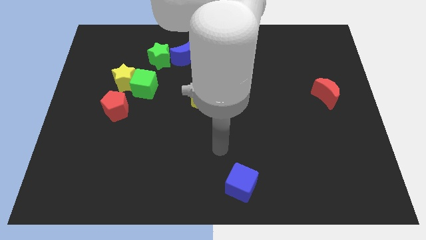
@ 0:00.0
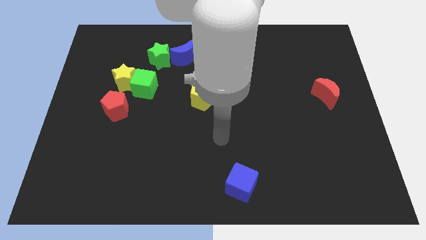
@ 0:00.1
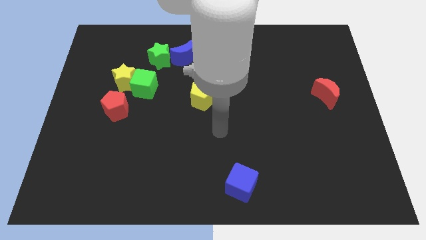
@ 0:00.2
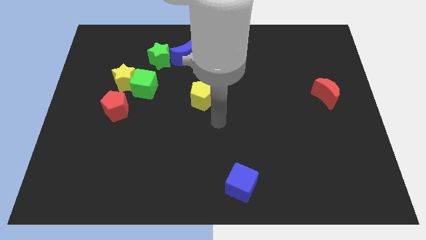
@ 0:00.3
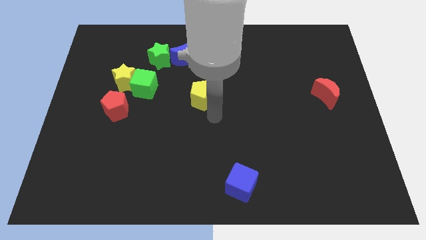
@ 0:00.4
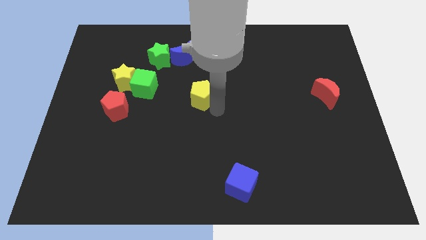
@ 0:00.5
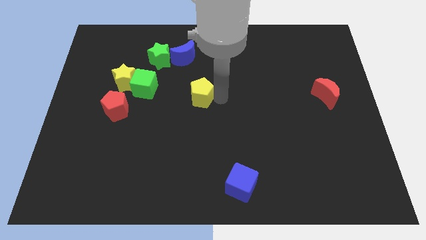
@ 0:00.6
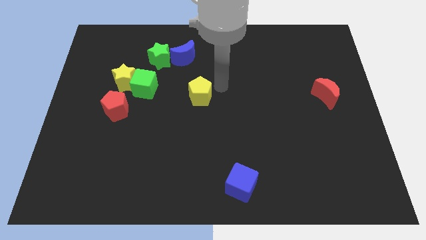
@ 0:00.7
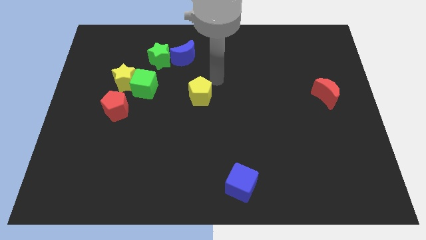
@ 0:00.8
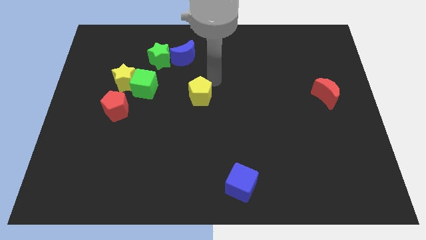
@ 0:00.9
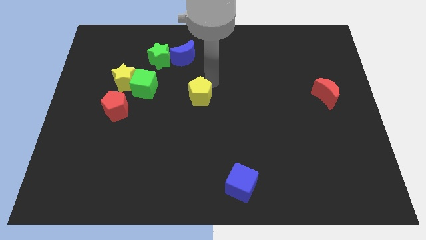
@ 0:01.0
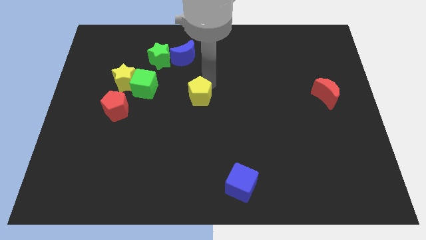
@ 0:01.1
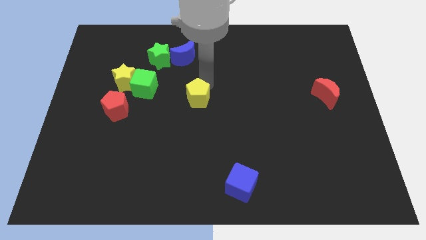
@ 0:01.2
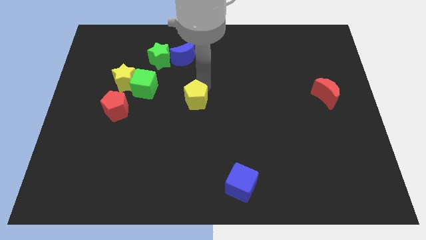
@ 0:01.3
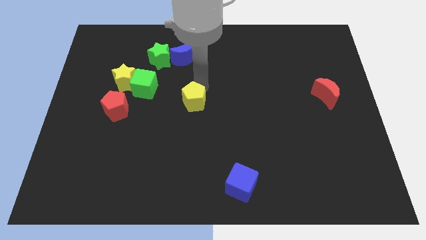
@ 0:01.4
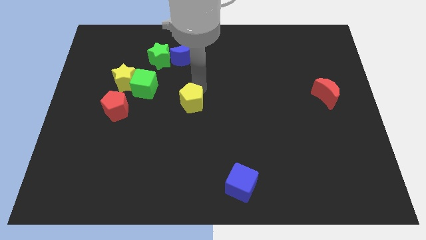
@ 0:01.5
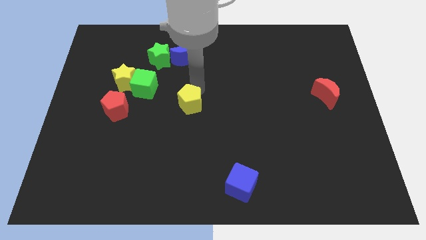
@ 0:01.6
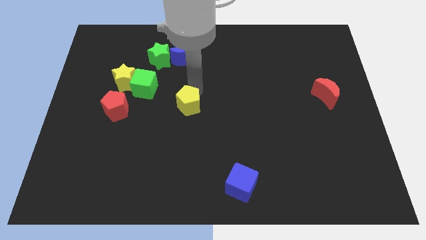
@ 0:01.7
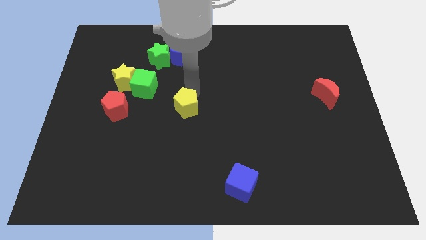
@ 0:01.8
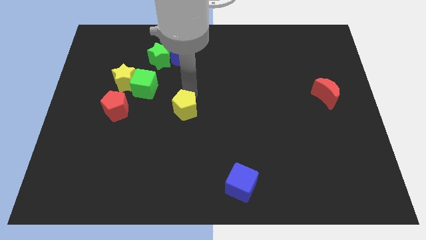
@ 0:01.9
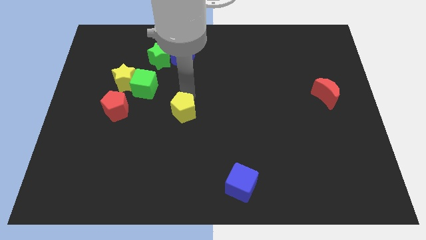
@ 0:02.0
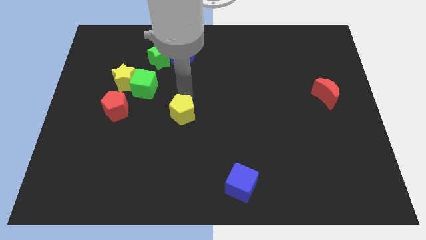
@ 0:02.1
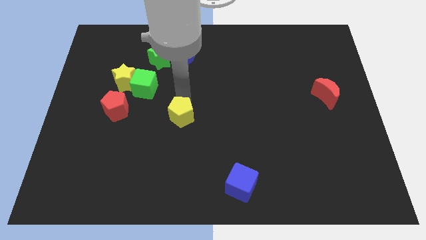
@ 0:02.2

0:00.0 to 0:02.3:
push the yellow pentagon somewhat downwards and then left

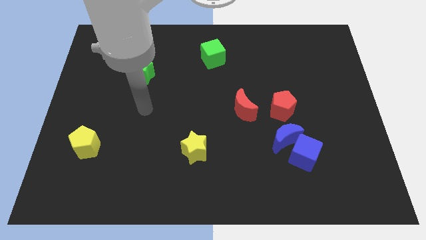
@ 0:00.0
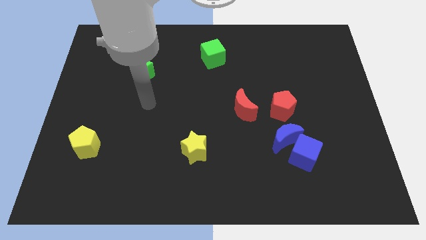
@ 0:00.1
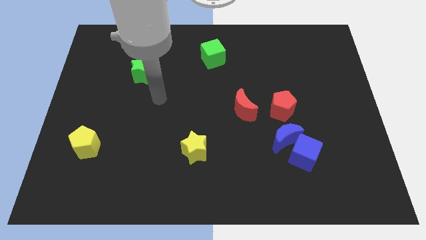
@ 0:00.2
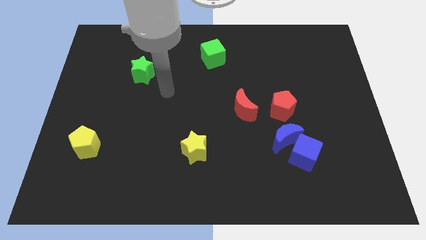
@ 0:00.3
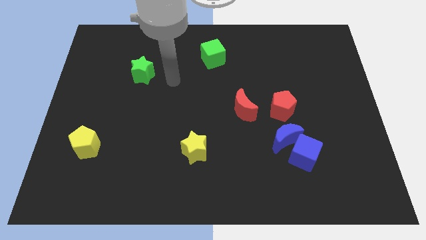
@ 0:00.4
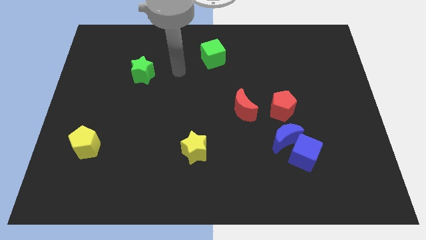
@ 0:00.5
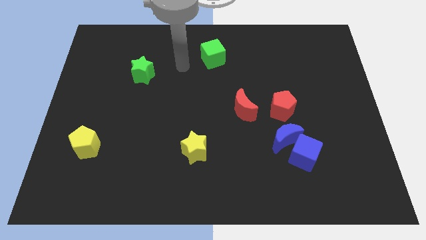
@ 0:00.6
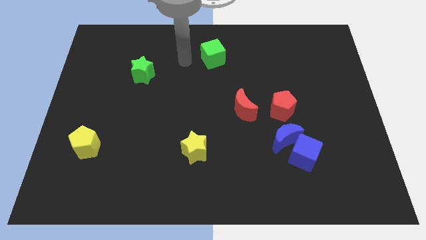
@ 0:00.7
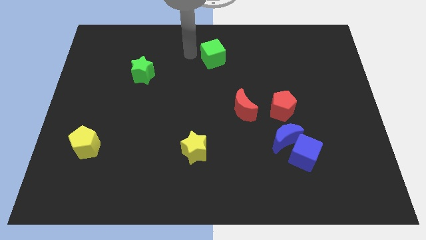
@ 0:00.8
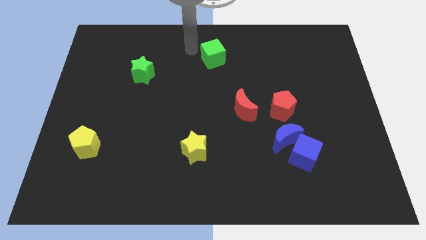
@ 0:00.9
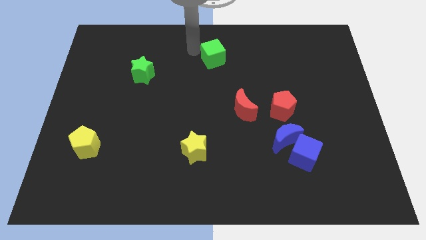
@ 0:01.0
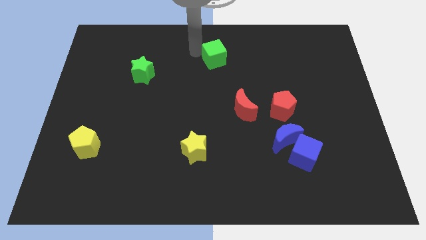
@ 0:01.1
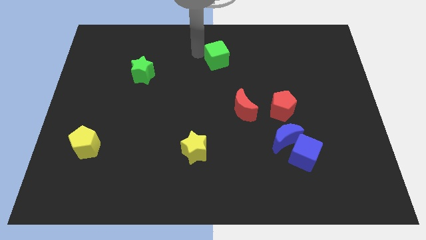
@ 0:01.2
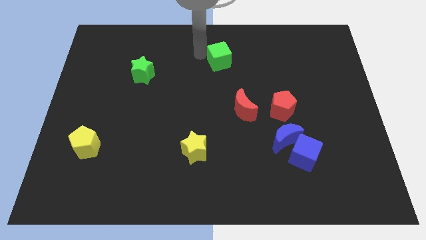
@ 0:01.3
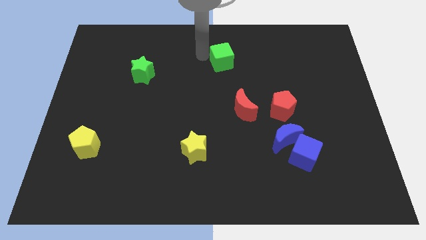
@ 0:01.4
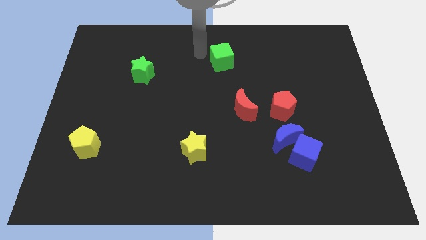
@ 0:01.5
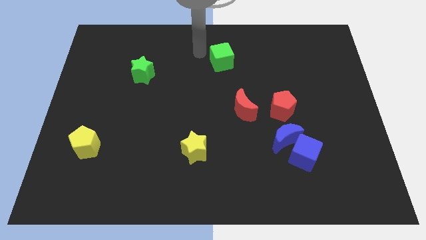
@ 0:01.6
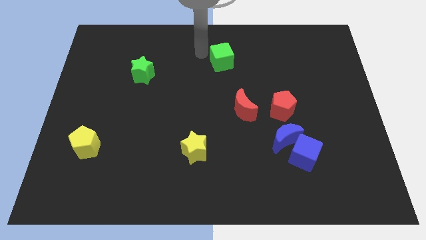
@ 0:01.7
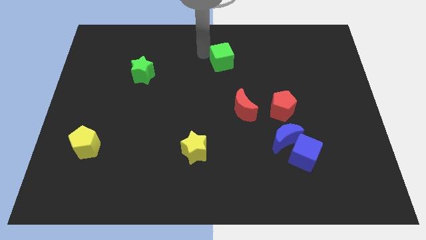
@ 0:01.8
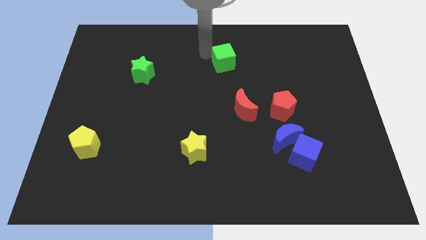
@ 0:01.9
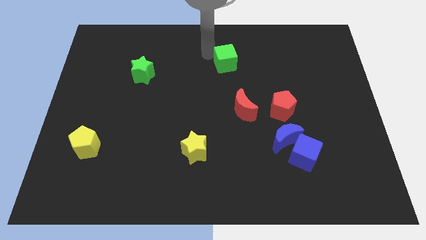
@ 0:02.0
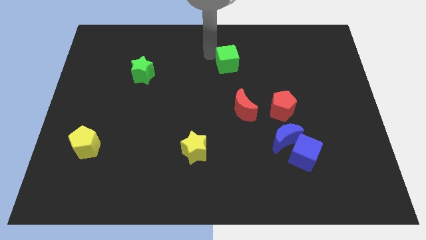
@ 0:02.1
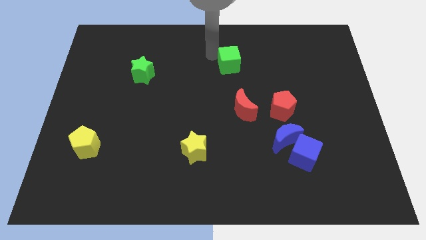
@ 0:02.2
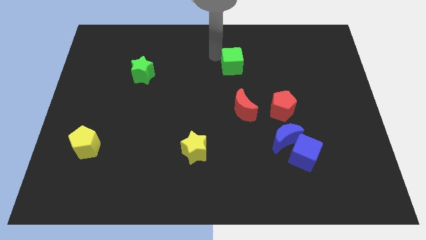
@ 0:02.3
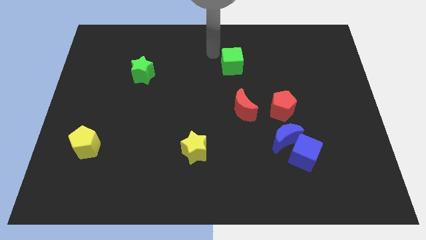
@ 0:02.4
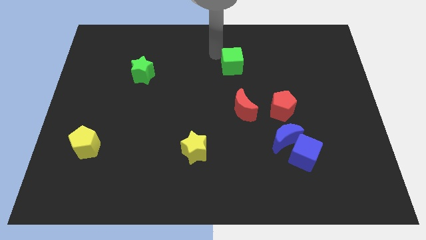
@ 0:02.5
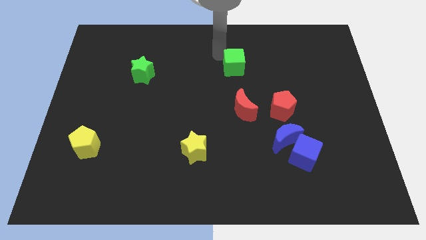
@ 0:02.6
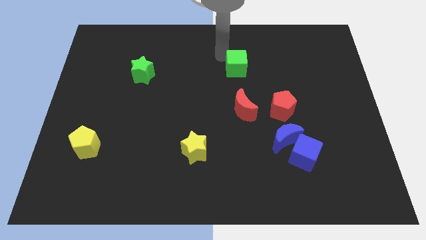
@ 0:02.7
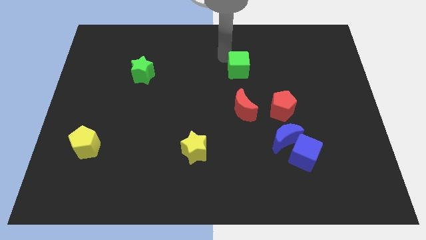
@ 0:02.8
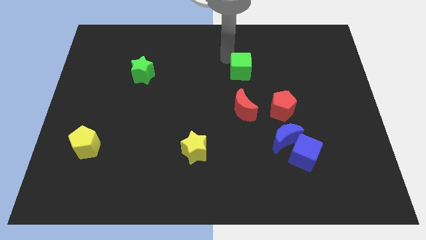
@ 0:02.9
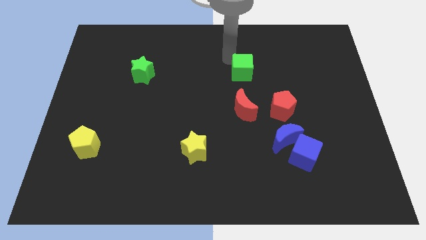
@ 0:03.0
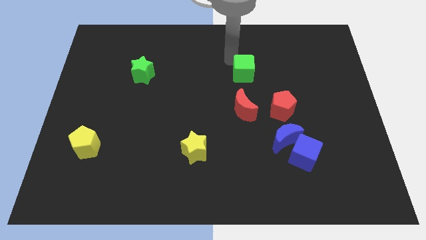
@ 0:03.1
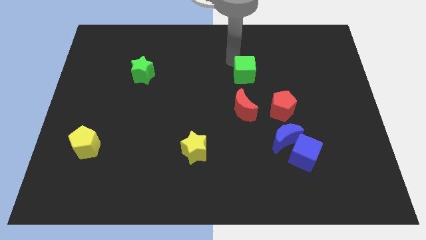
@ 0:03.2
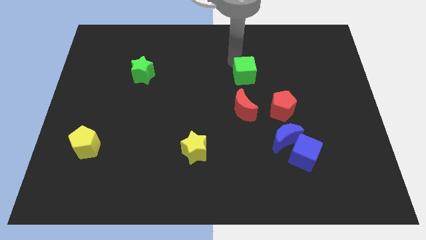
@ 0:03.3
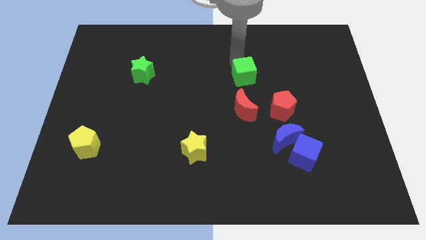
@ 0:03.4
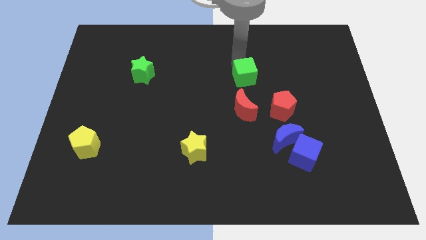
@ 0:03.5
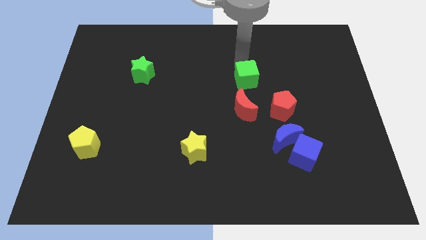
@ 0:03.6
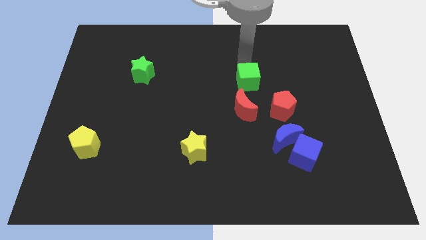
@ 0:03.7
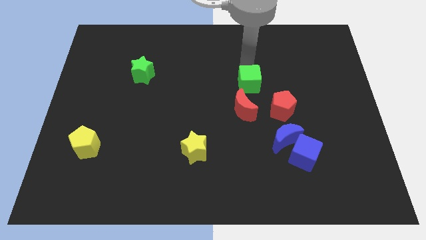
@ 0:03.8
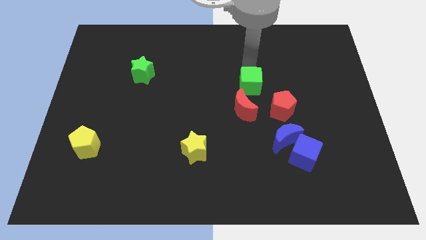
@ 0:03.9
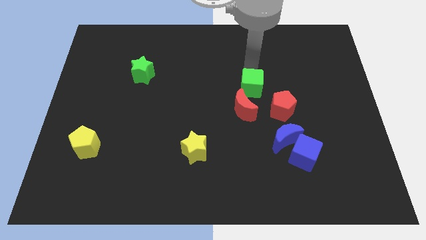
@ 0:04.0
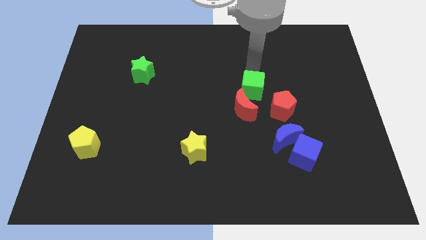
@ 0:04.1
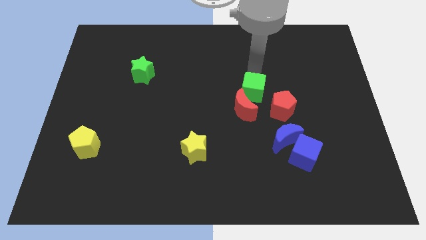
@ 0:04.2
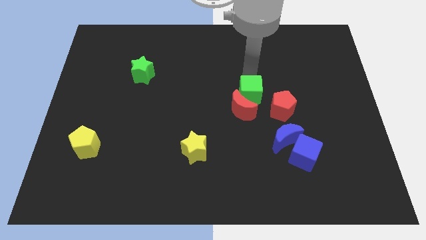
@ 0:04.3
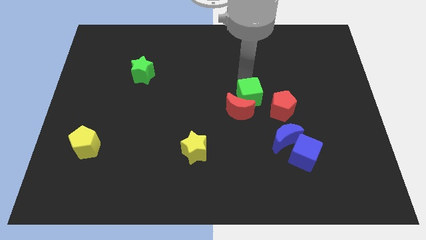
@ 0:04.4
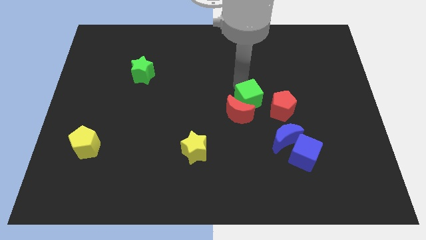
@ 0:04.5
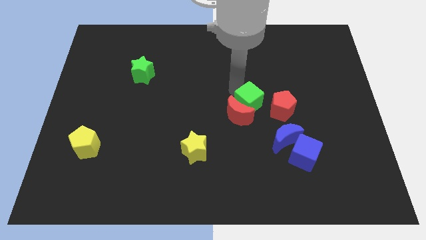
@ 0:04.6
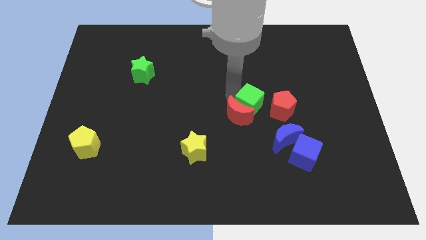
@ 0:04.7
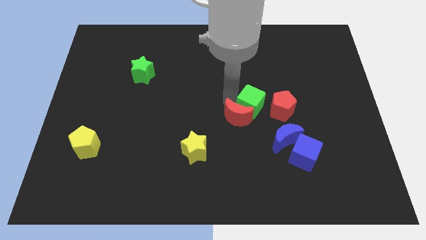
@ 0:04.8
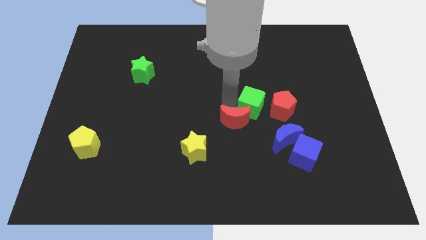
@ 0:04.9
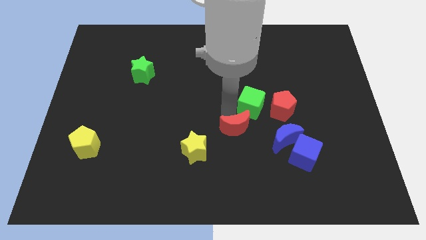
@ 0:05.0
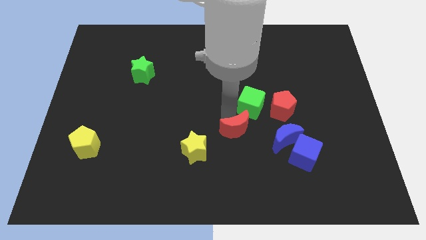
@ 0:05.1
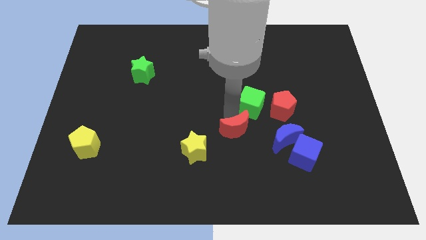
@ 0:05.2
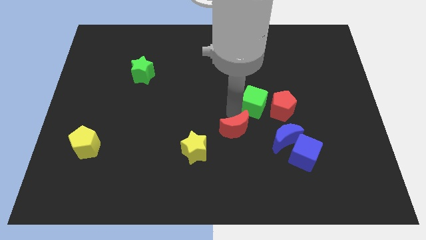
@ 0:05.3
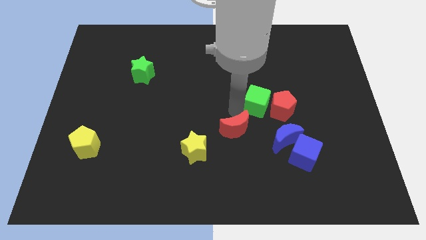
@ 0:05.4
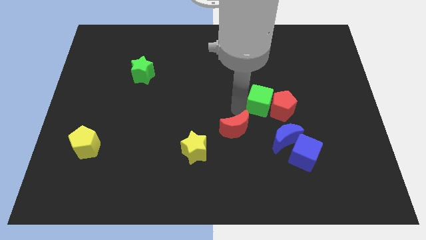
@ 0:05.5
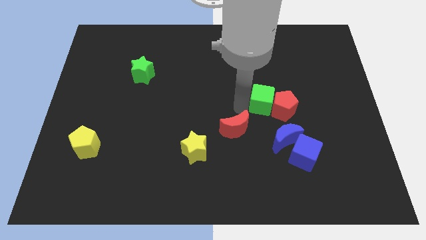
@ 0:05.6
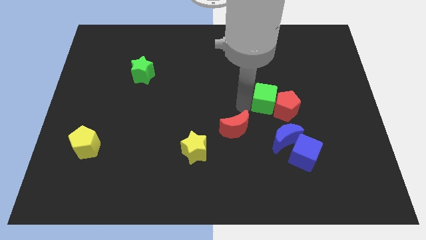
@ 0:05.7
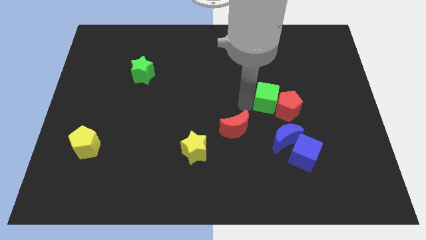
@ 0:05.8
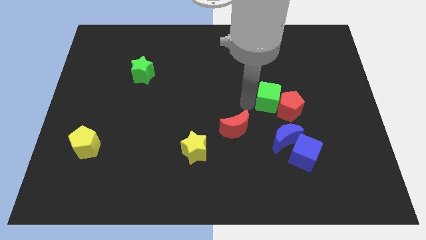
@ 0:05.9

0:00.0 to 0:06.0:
slide the green cube downwards and then right
